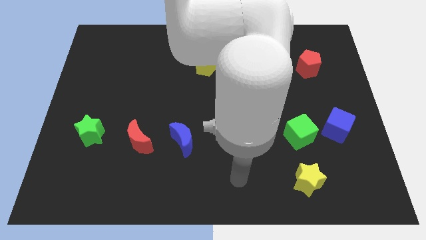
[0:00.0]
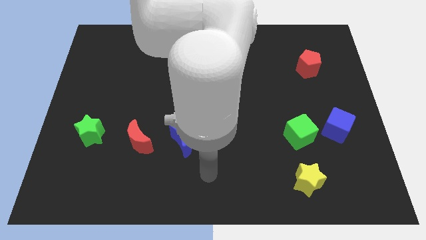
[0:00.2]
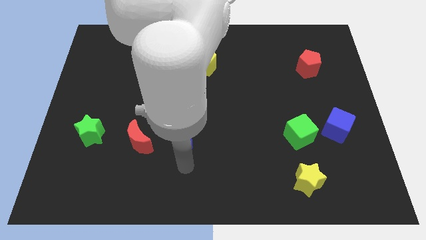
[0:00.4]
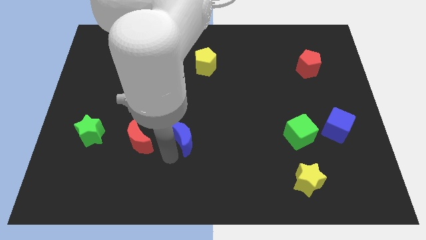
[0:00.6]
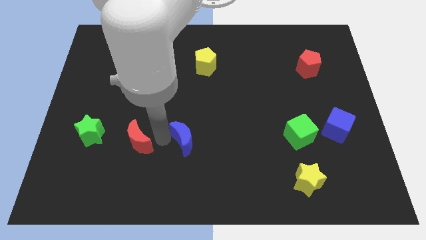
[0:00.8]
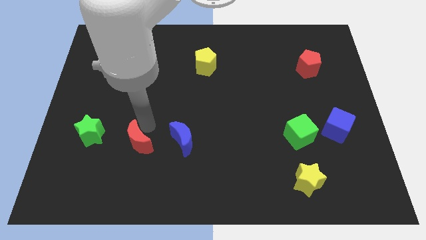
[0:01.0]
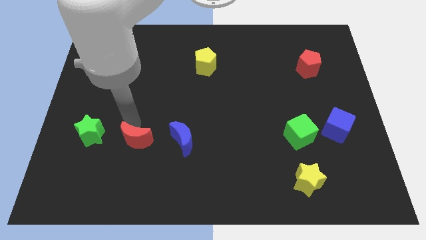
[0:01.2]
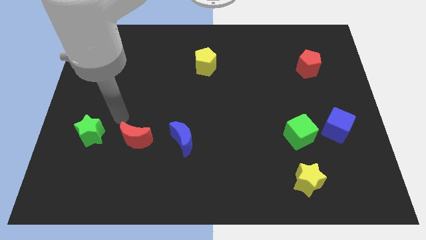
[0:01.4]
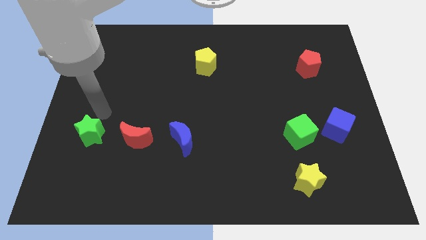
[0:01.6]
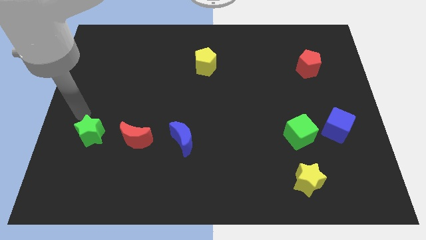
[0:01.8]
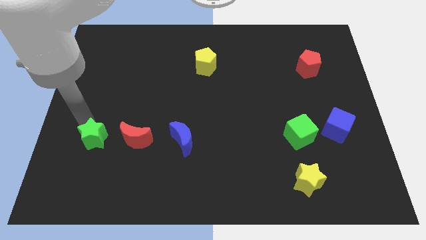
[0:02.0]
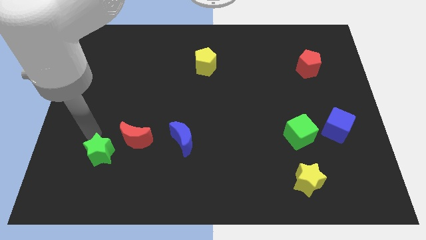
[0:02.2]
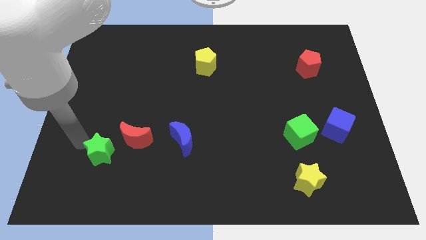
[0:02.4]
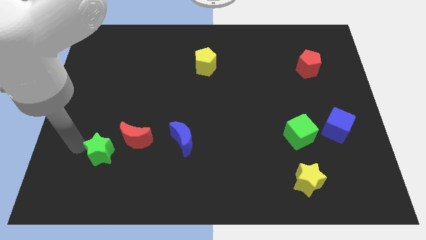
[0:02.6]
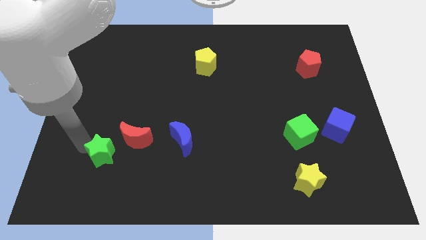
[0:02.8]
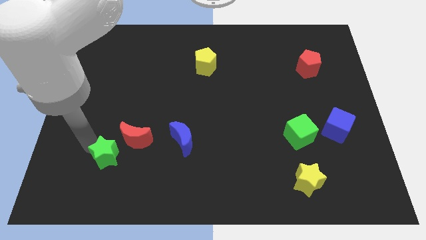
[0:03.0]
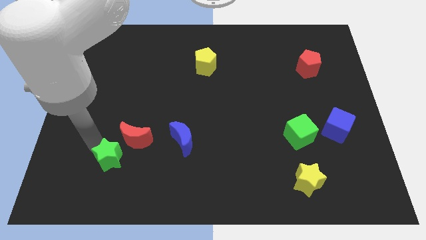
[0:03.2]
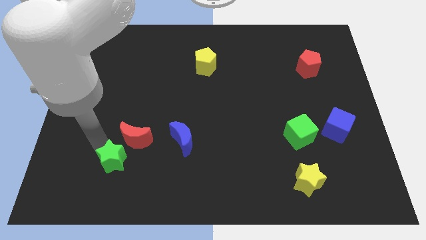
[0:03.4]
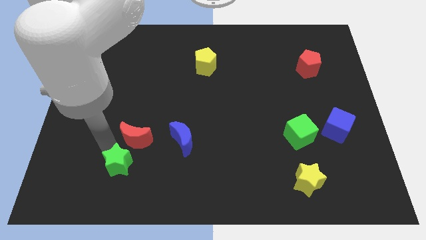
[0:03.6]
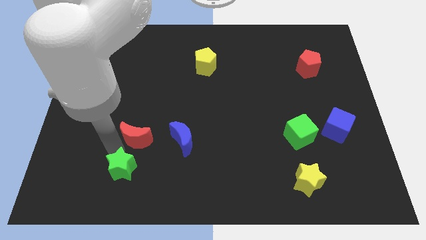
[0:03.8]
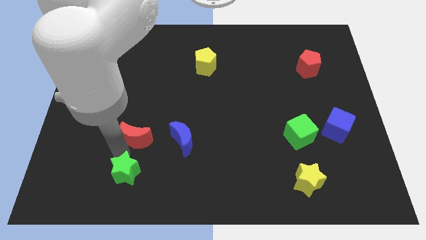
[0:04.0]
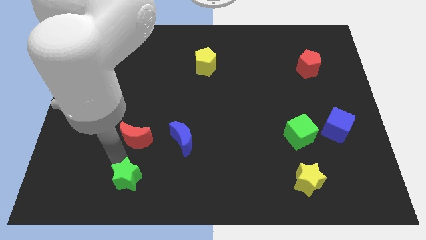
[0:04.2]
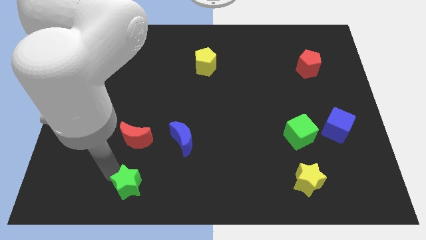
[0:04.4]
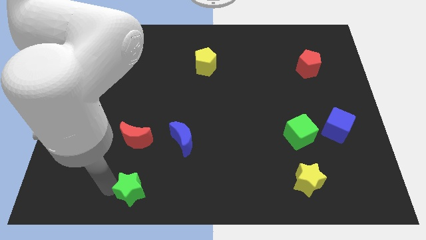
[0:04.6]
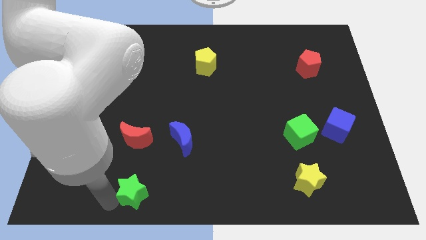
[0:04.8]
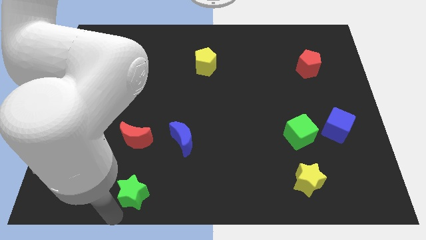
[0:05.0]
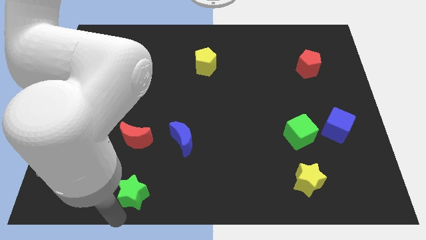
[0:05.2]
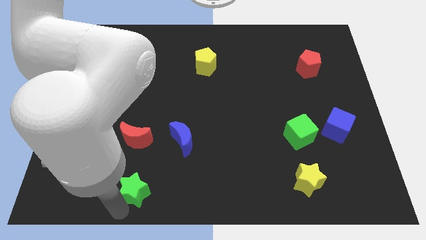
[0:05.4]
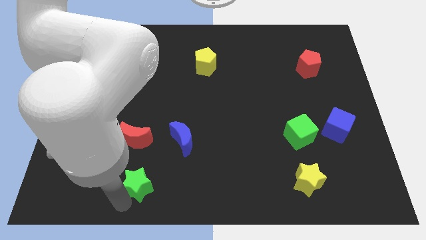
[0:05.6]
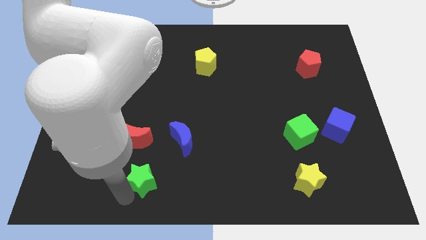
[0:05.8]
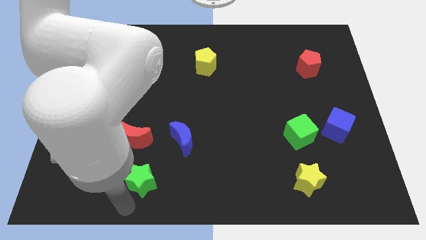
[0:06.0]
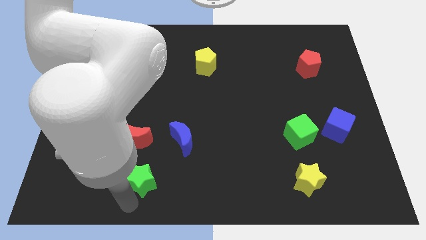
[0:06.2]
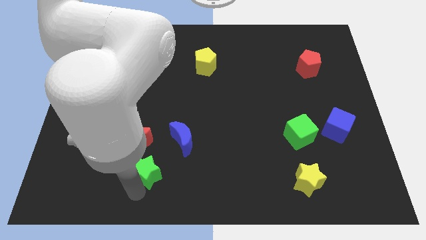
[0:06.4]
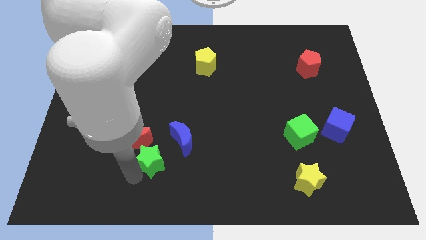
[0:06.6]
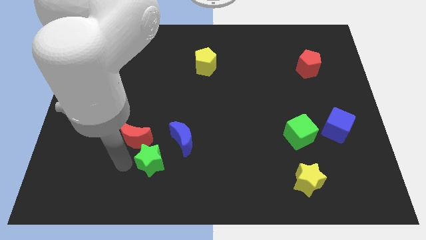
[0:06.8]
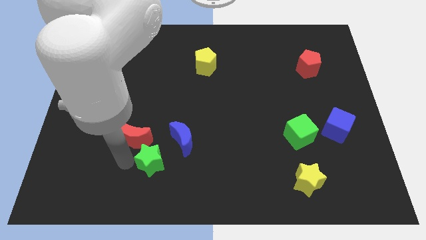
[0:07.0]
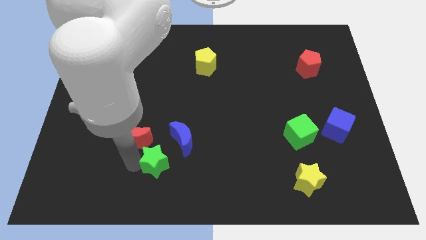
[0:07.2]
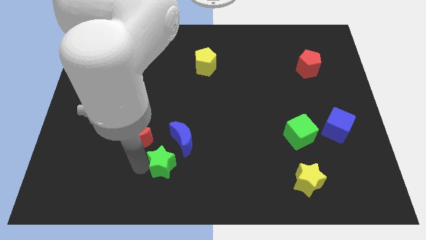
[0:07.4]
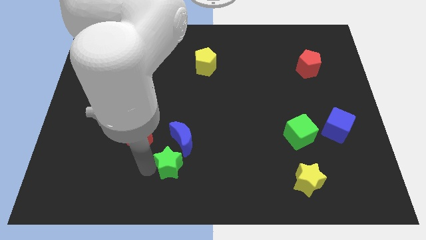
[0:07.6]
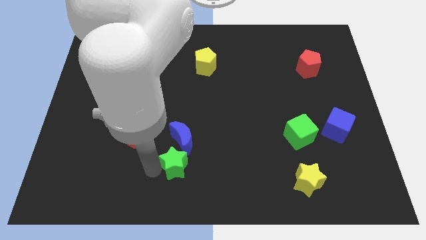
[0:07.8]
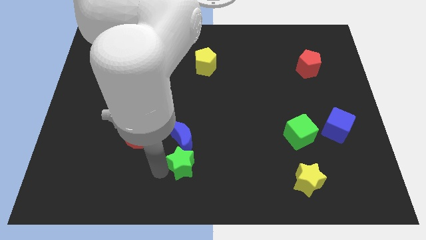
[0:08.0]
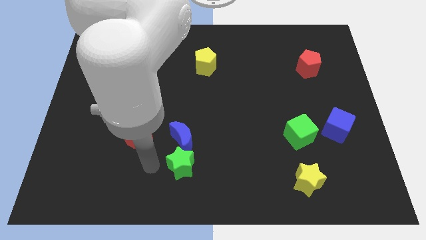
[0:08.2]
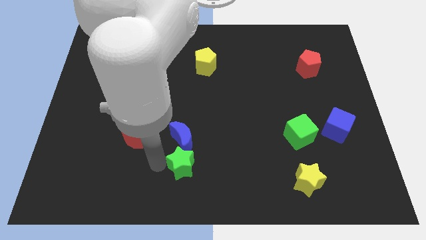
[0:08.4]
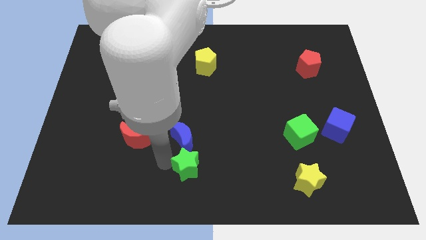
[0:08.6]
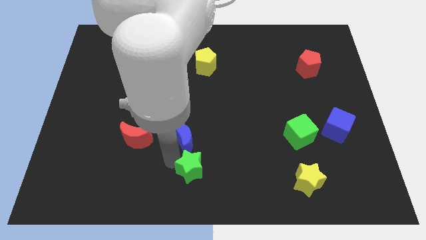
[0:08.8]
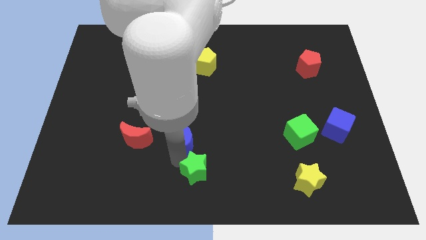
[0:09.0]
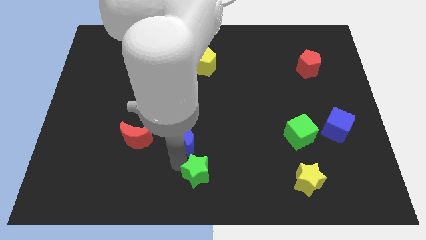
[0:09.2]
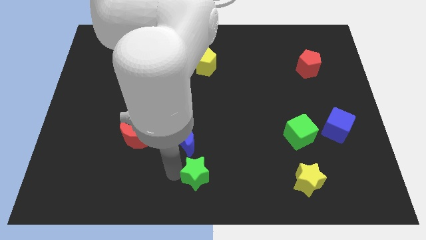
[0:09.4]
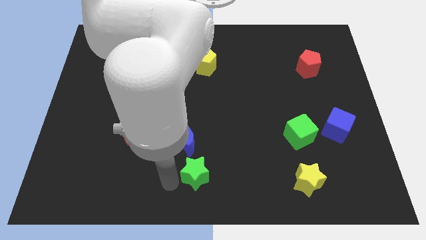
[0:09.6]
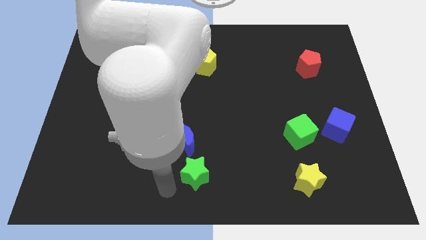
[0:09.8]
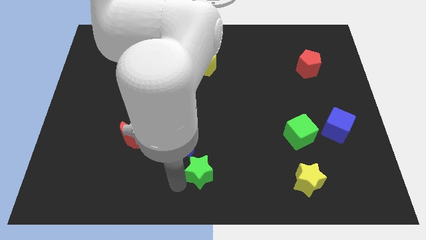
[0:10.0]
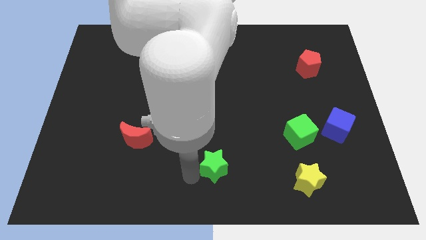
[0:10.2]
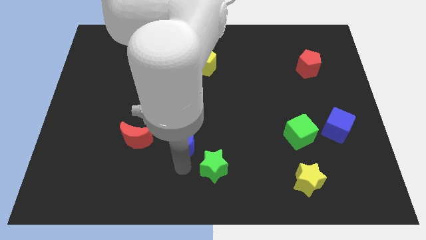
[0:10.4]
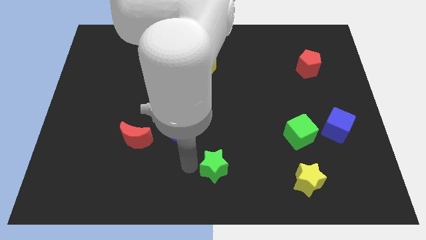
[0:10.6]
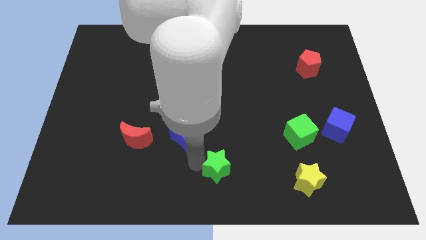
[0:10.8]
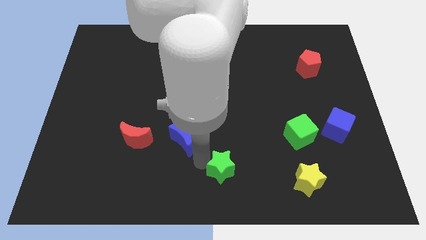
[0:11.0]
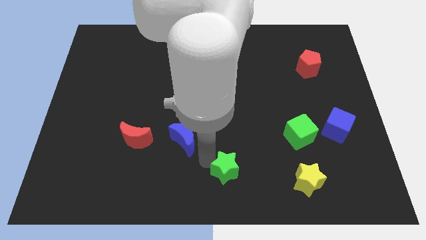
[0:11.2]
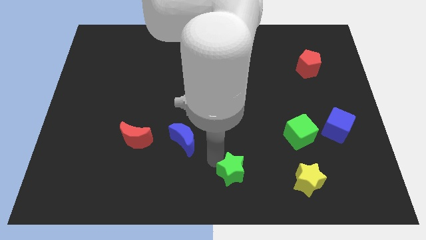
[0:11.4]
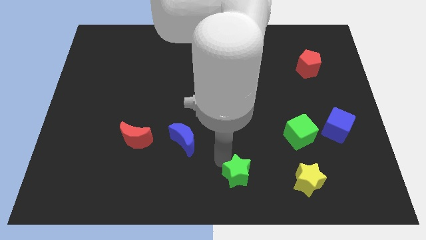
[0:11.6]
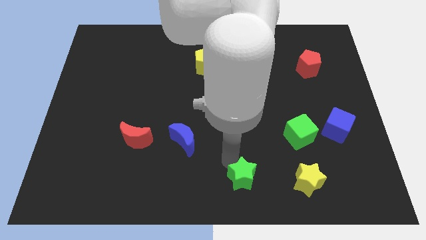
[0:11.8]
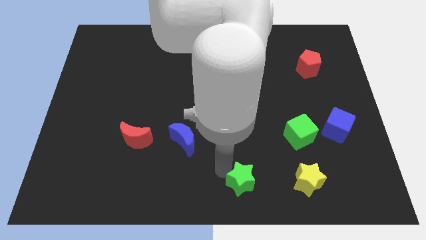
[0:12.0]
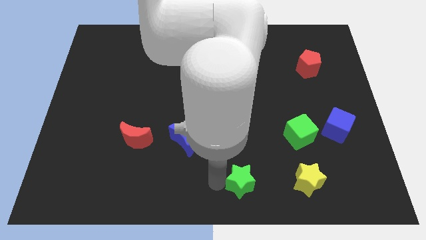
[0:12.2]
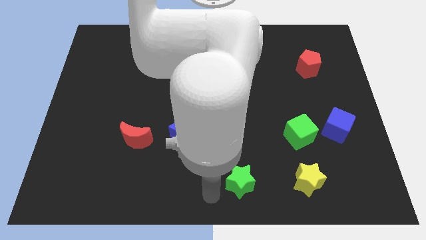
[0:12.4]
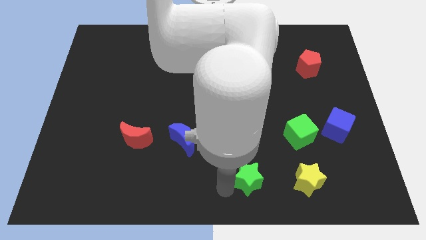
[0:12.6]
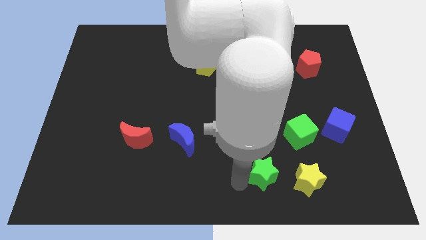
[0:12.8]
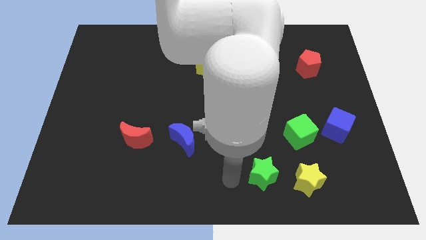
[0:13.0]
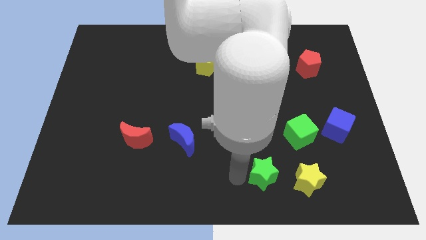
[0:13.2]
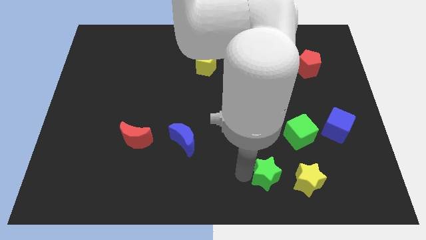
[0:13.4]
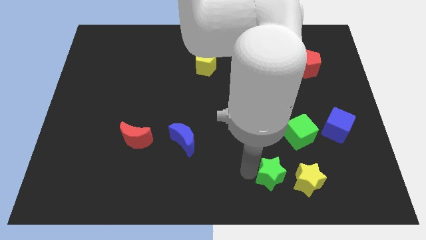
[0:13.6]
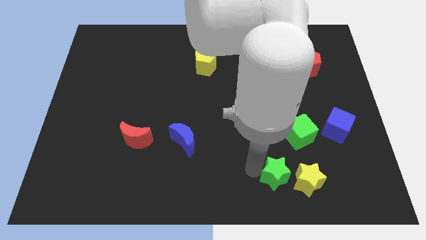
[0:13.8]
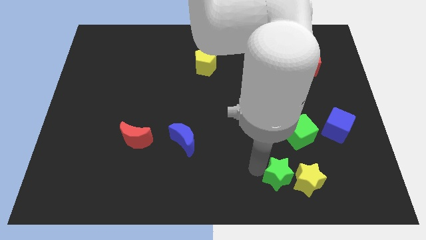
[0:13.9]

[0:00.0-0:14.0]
move the green star next to the yellow star

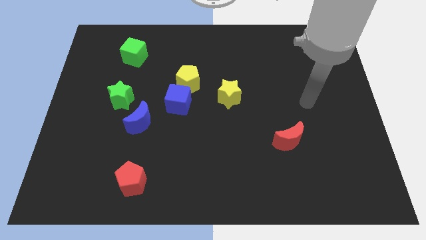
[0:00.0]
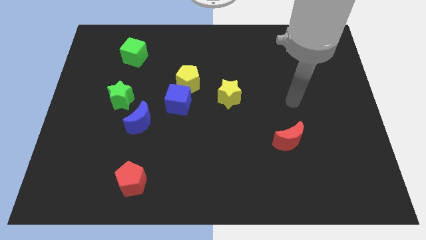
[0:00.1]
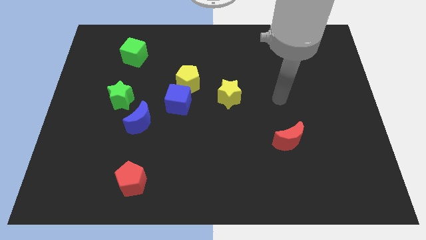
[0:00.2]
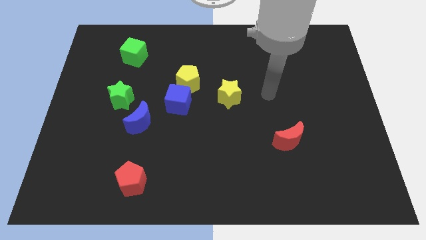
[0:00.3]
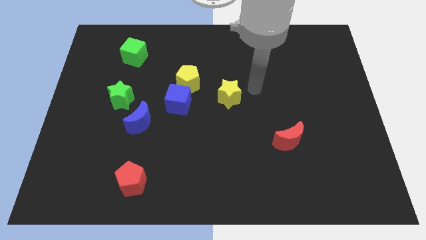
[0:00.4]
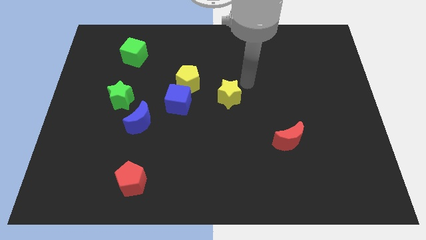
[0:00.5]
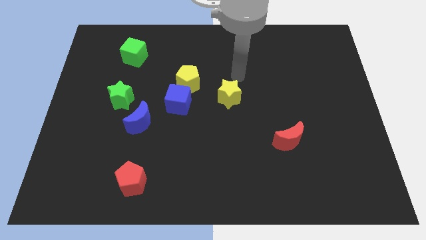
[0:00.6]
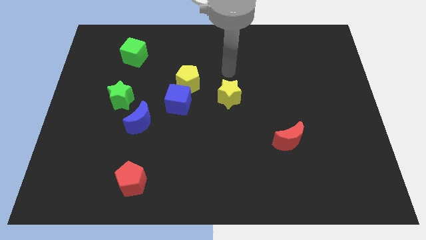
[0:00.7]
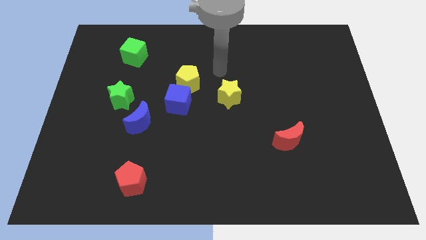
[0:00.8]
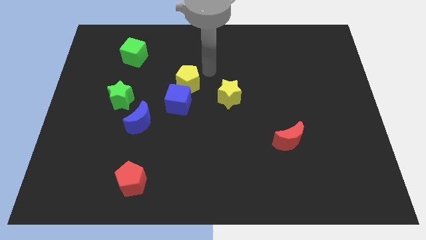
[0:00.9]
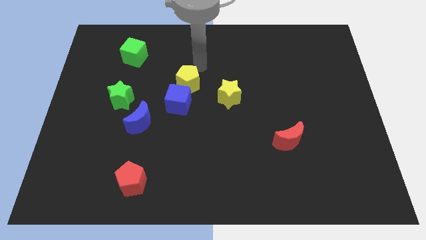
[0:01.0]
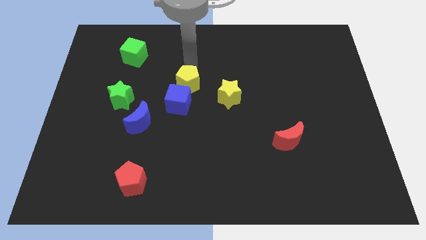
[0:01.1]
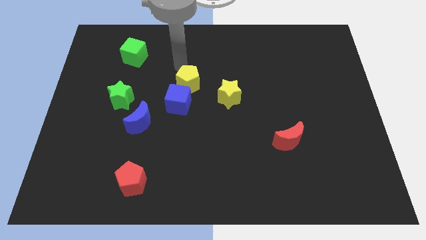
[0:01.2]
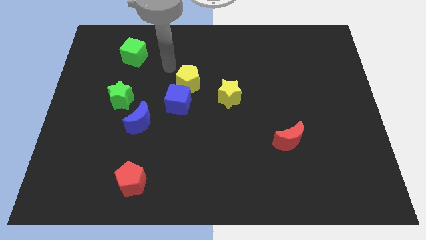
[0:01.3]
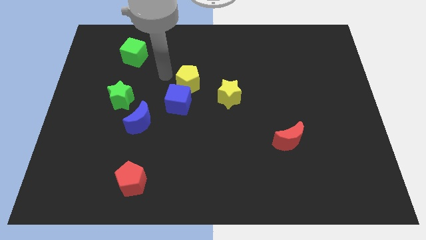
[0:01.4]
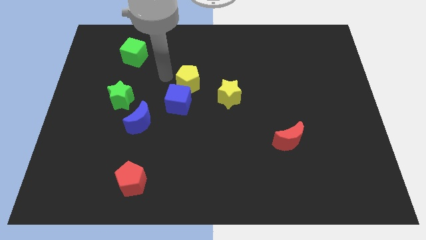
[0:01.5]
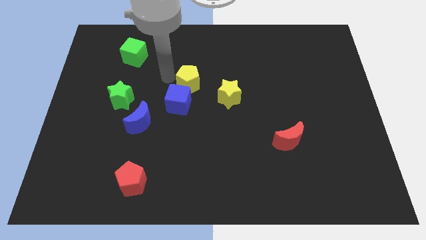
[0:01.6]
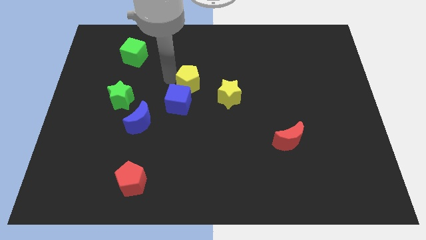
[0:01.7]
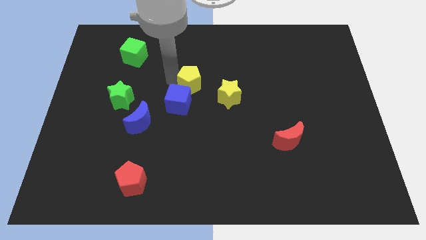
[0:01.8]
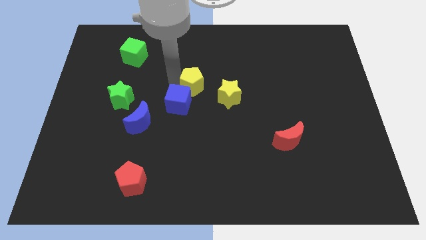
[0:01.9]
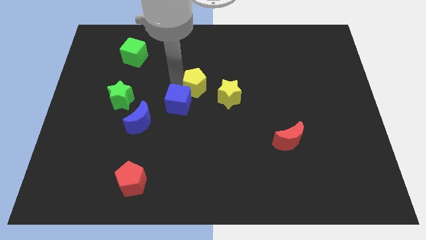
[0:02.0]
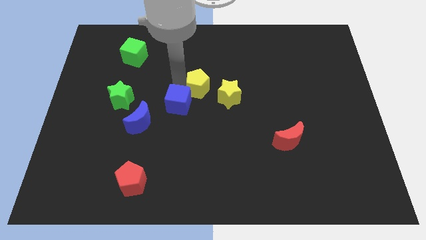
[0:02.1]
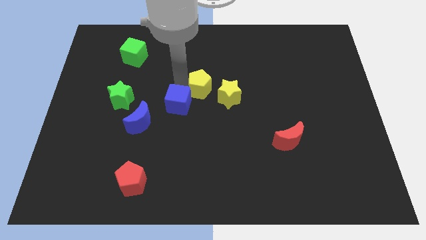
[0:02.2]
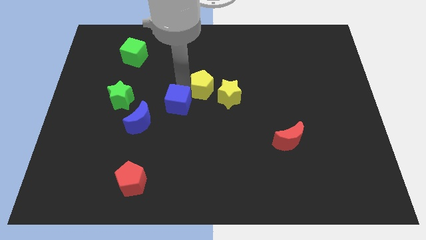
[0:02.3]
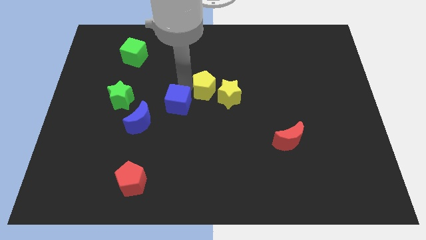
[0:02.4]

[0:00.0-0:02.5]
move the yellow pentagon close to the yellow star
